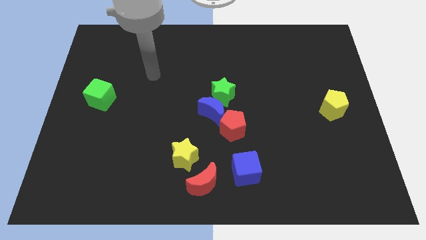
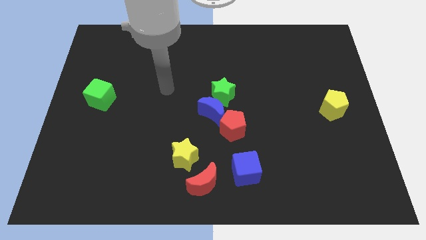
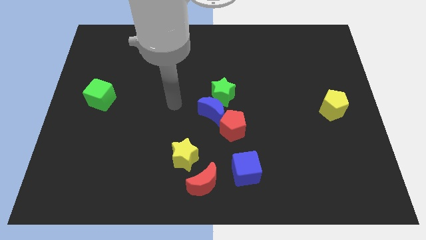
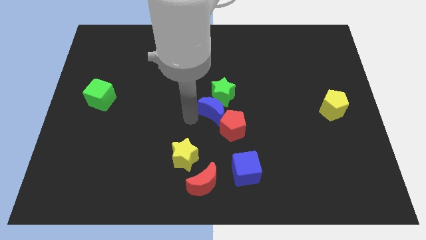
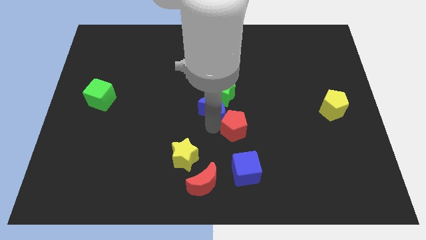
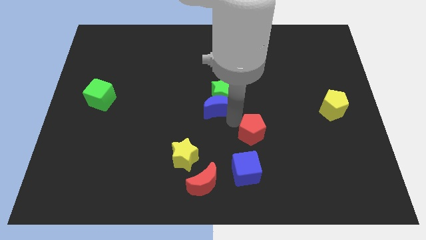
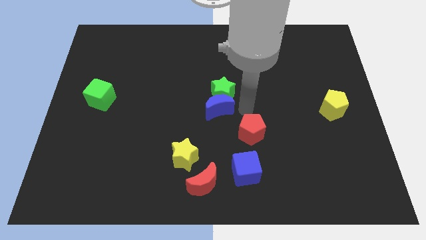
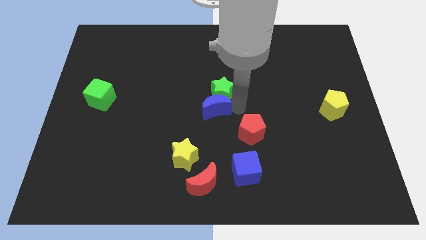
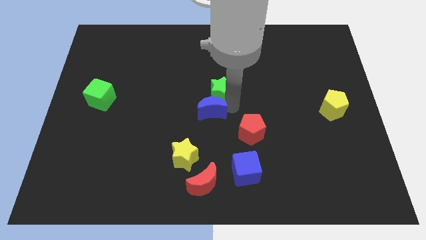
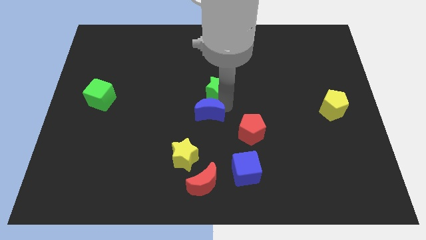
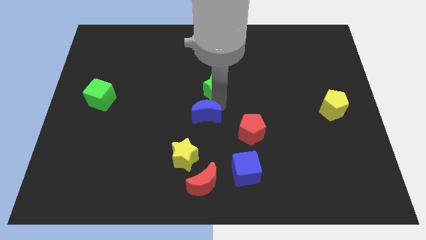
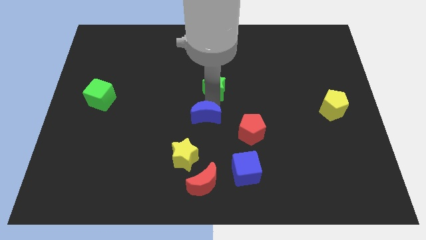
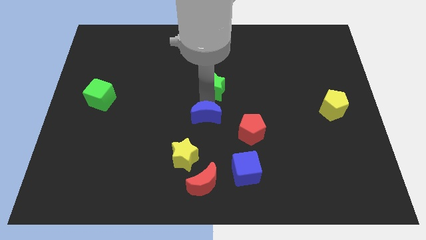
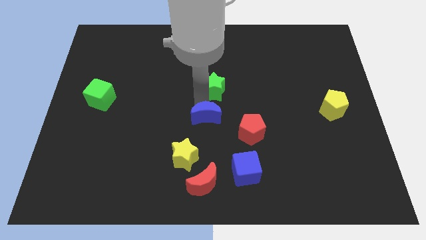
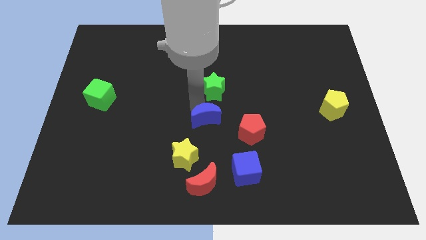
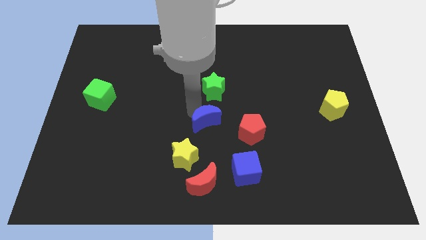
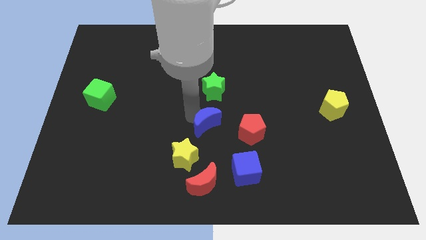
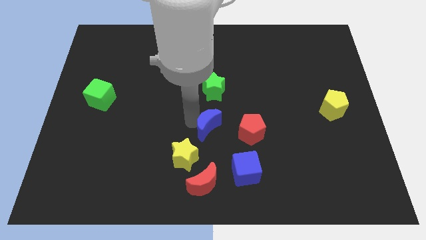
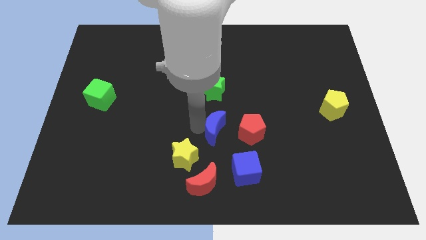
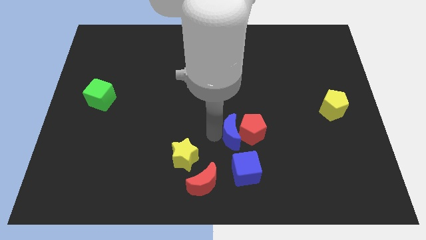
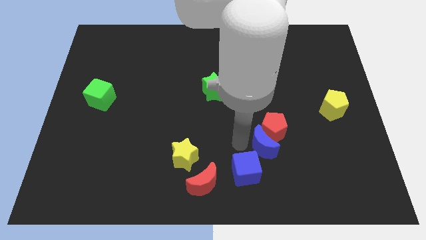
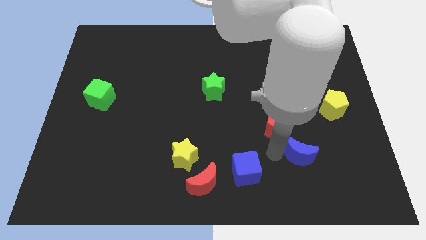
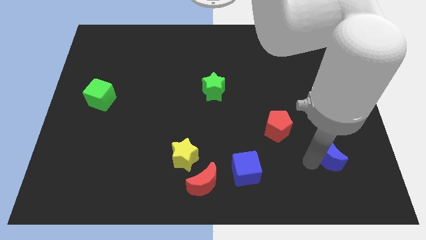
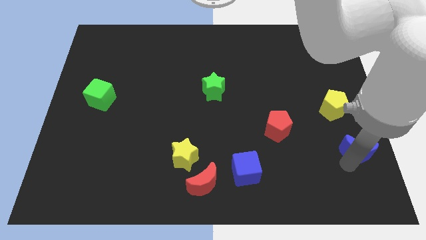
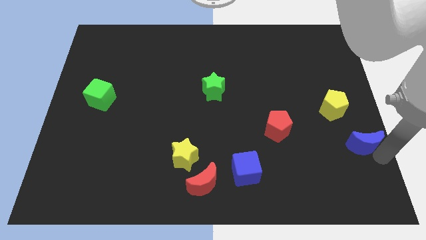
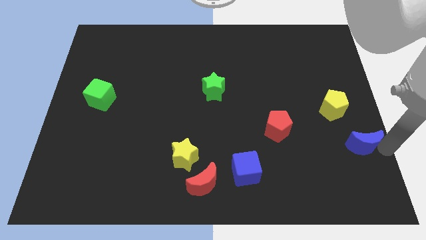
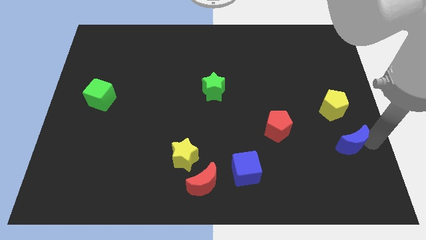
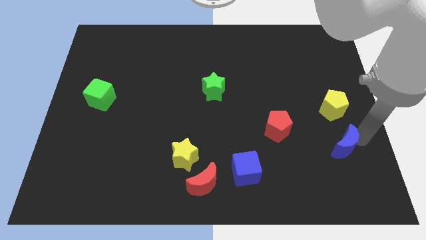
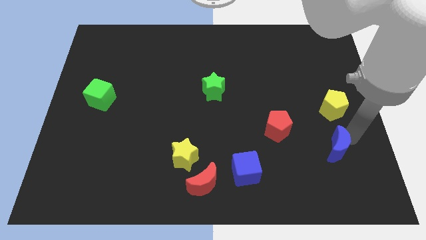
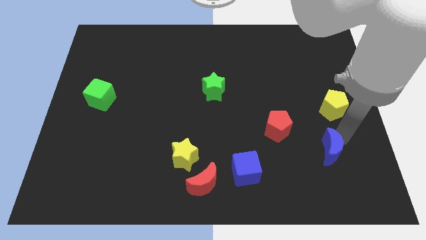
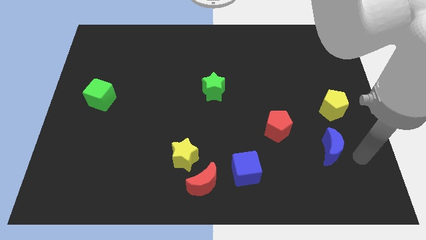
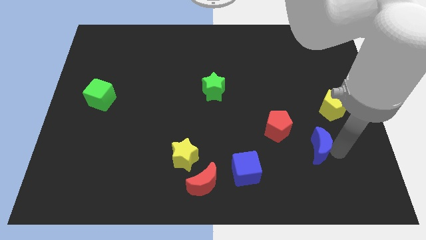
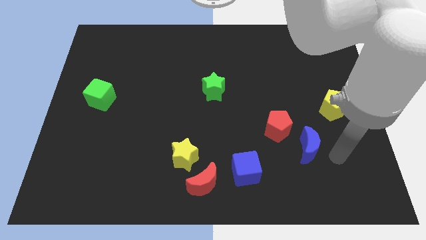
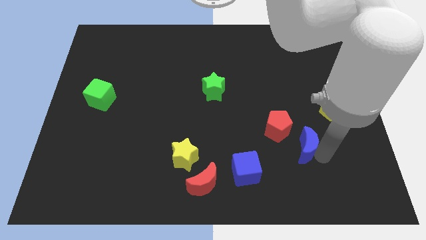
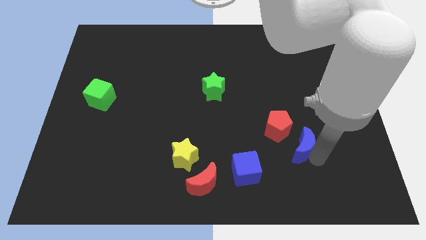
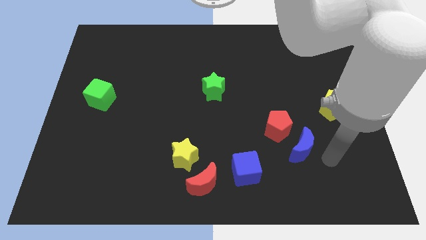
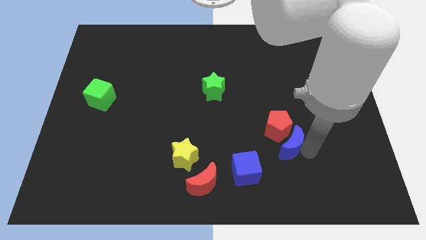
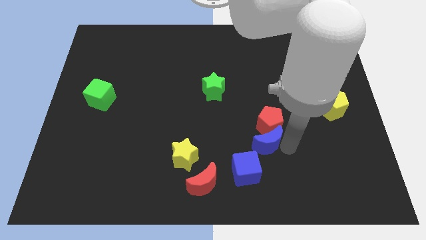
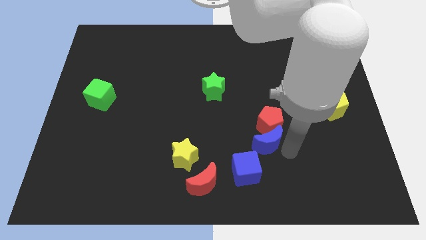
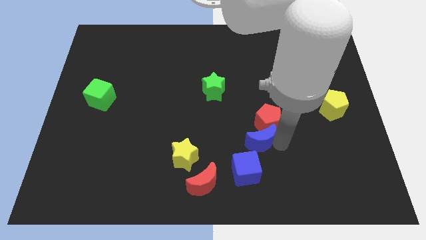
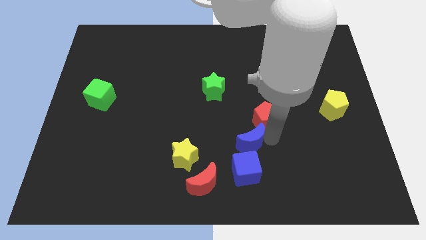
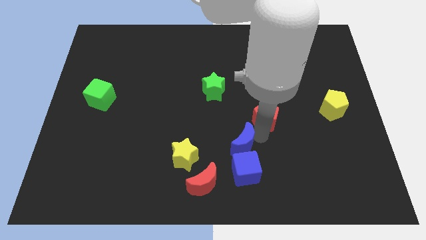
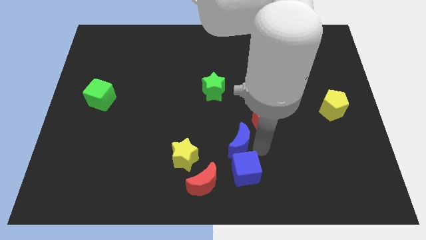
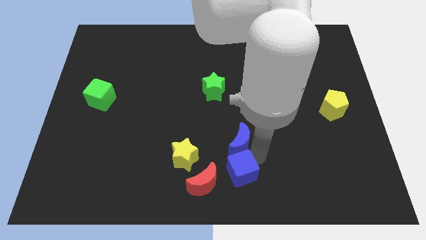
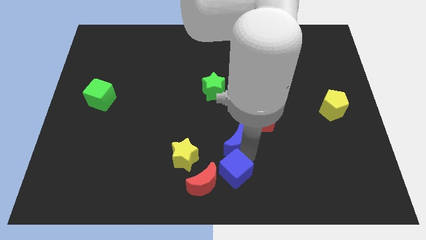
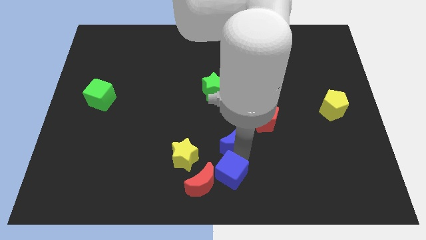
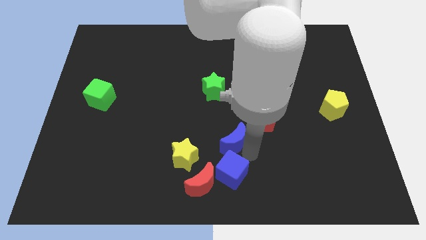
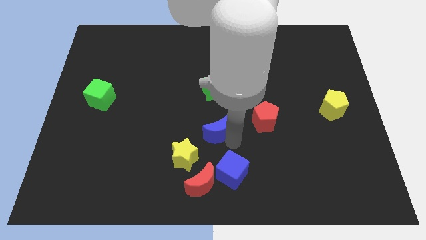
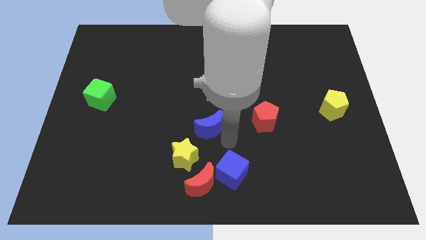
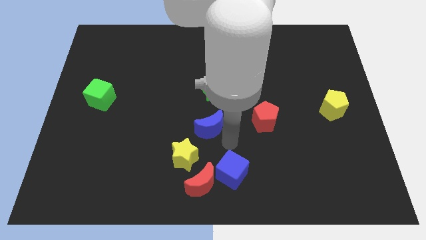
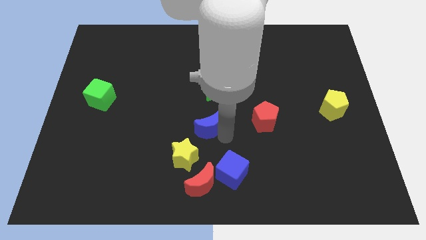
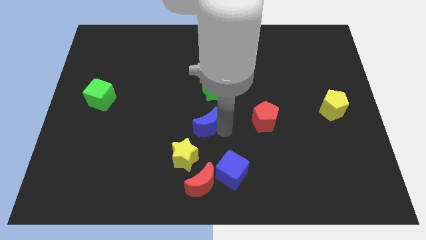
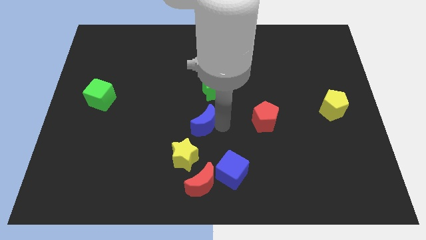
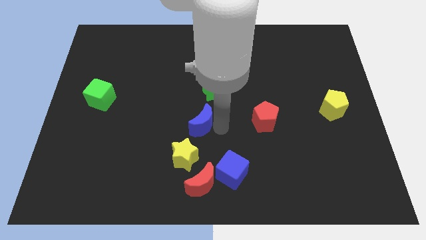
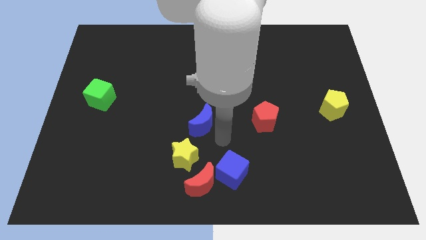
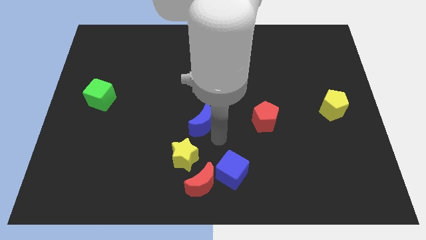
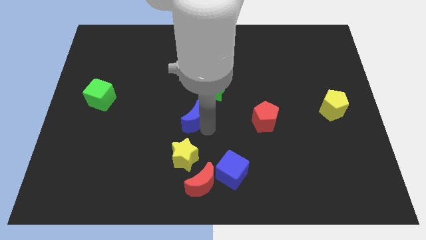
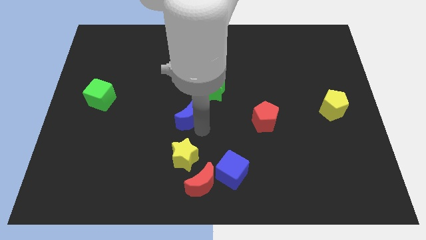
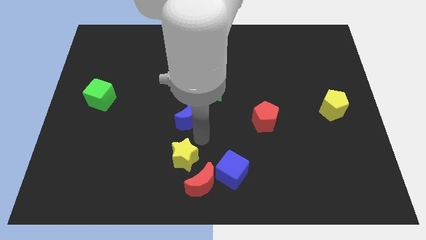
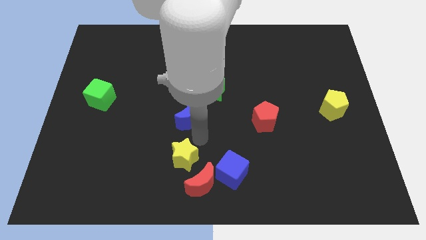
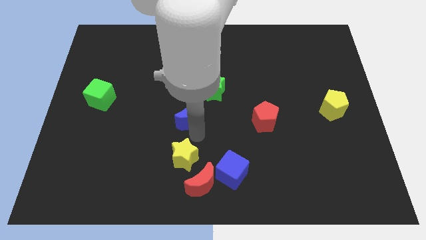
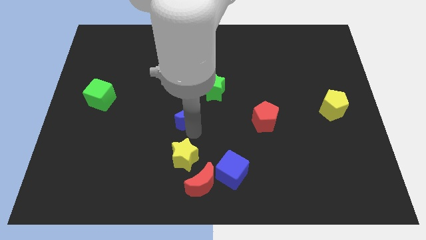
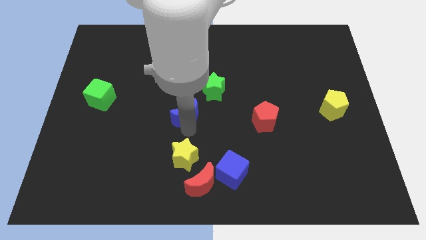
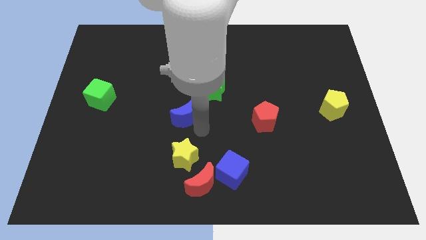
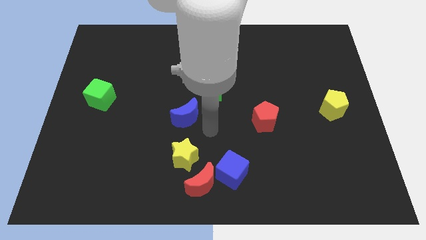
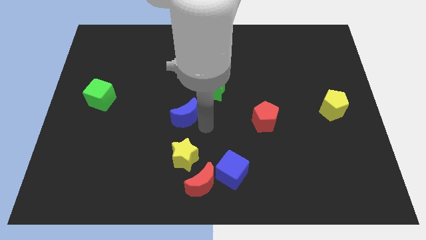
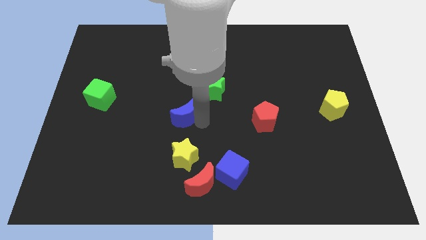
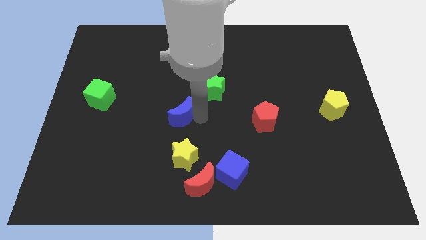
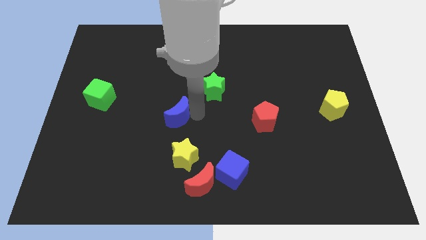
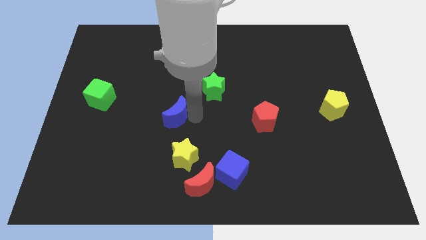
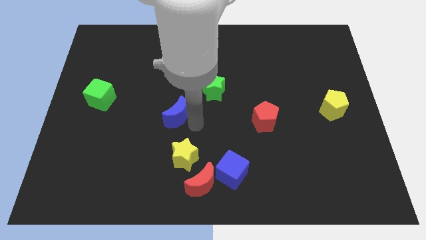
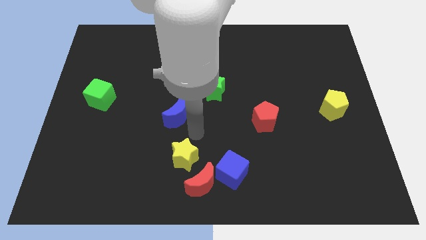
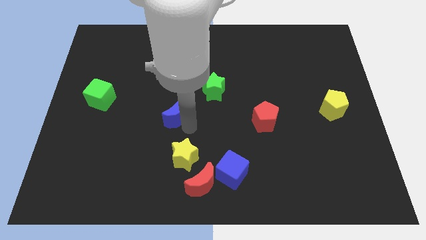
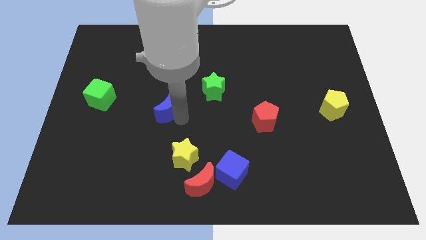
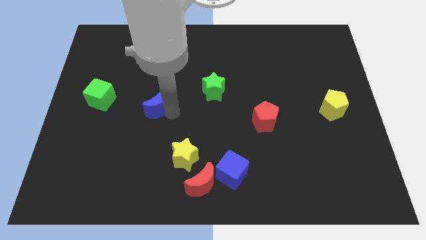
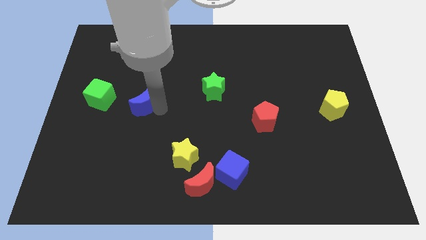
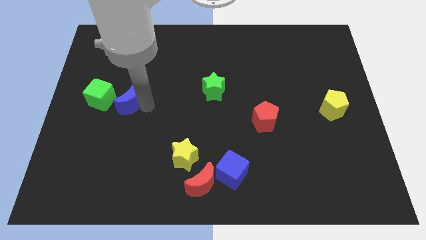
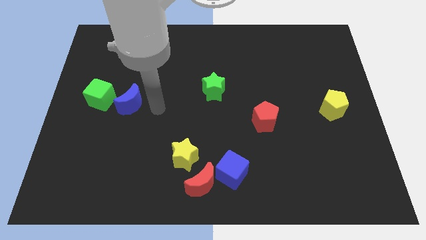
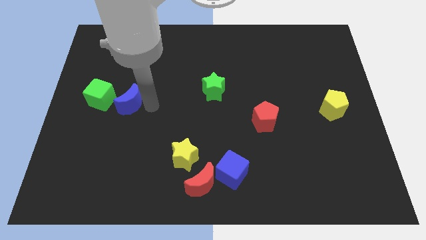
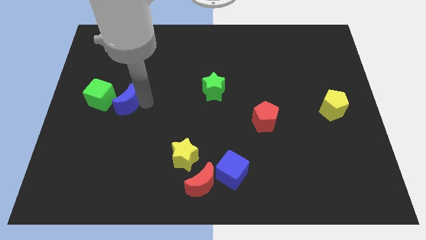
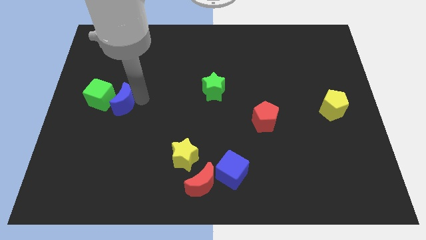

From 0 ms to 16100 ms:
move the blue moon next to the green cube
